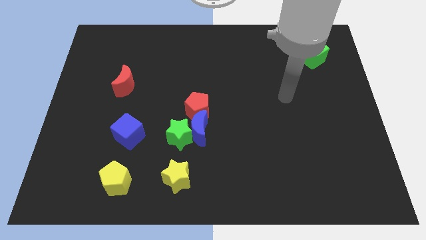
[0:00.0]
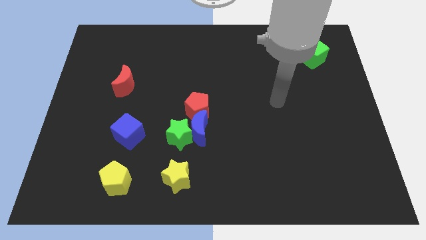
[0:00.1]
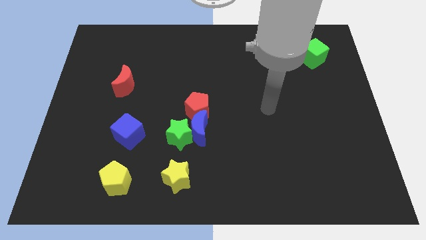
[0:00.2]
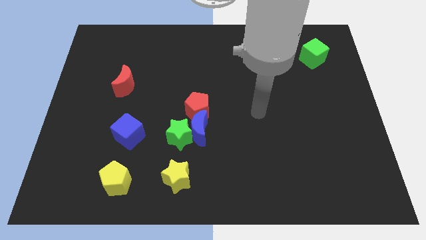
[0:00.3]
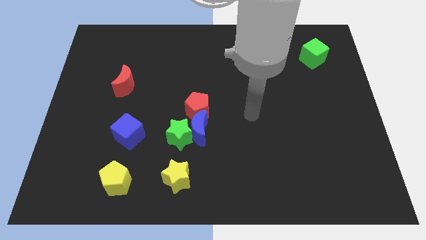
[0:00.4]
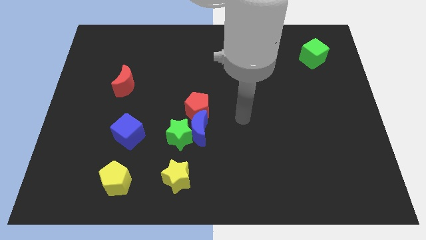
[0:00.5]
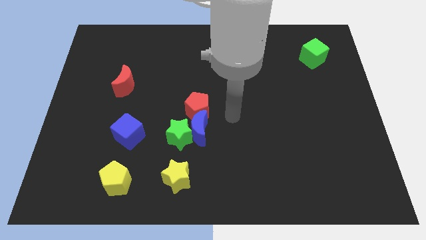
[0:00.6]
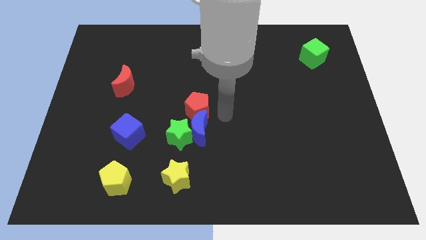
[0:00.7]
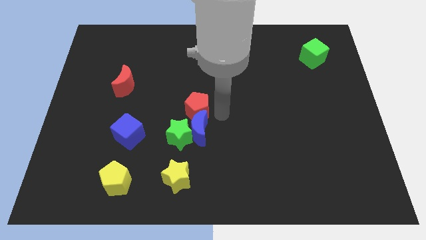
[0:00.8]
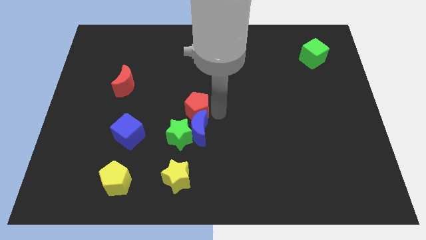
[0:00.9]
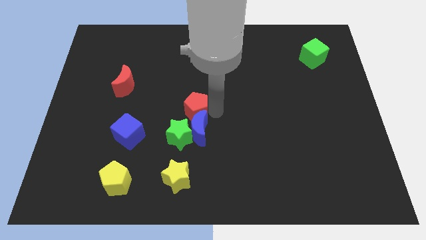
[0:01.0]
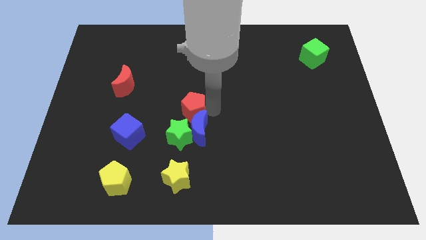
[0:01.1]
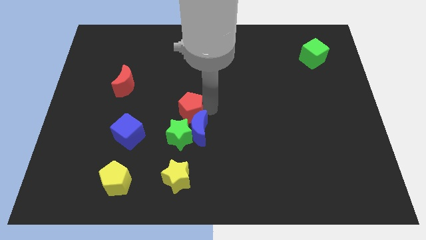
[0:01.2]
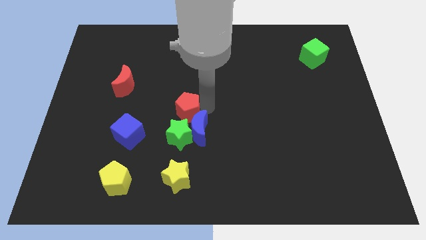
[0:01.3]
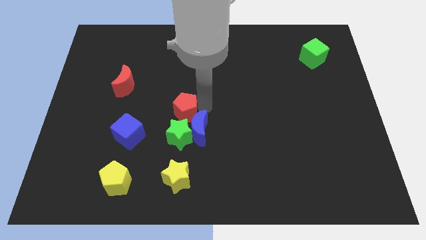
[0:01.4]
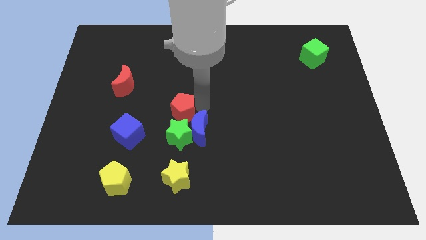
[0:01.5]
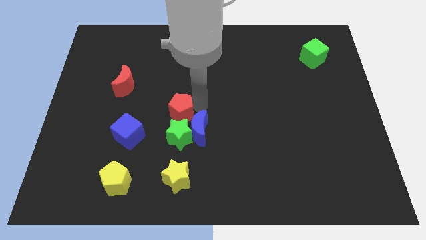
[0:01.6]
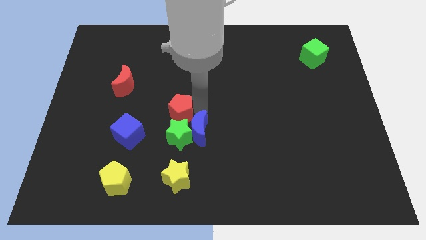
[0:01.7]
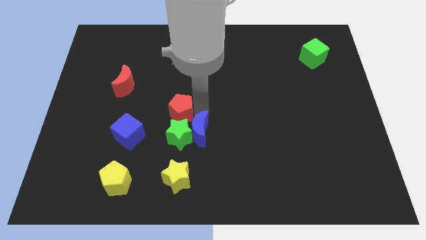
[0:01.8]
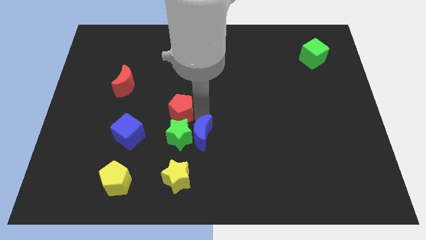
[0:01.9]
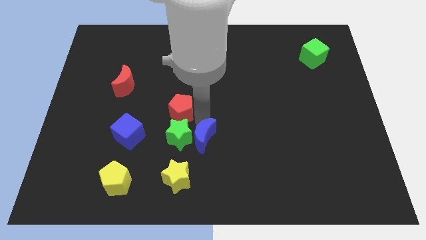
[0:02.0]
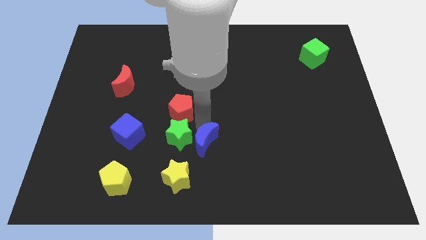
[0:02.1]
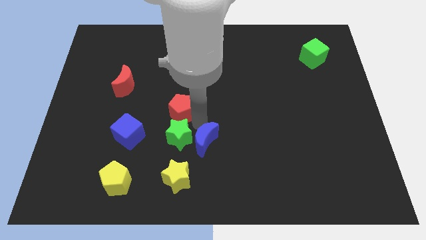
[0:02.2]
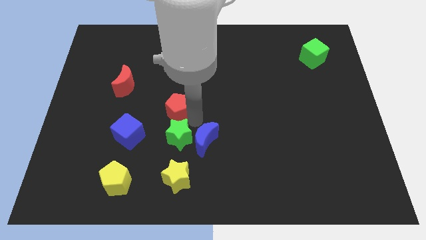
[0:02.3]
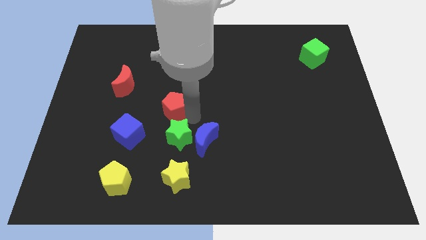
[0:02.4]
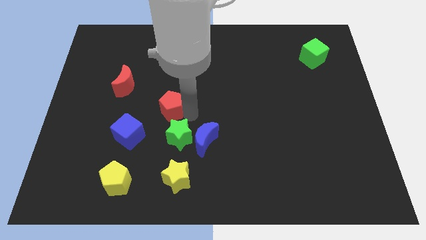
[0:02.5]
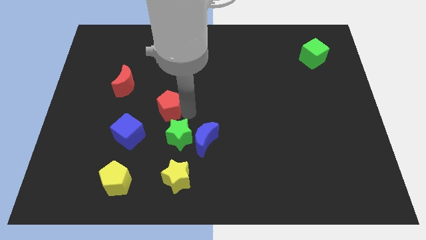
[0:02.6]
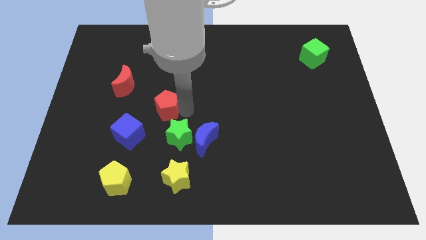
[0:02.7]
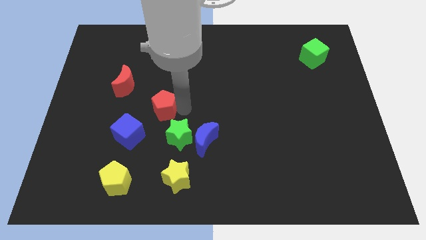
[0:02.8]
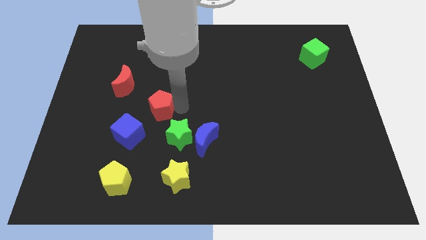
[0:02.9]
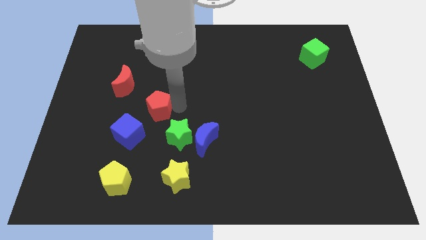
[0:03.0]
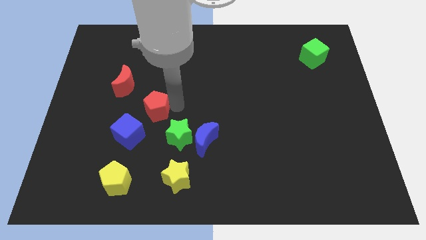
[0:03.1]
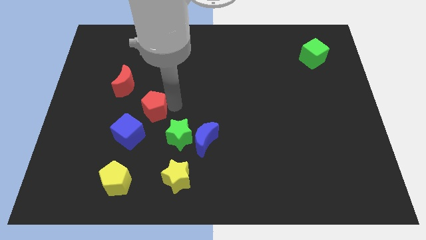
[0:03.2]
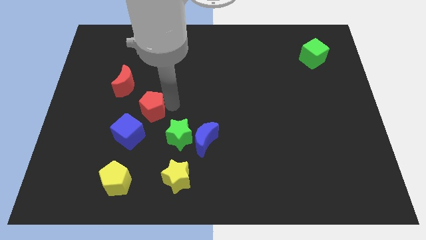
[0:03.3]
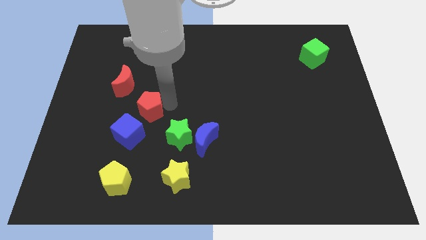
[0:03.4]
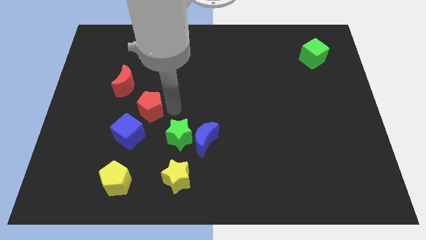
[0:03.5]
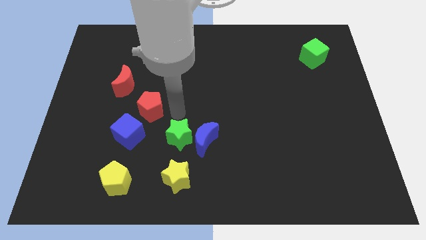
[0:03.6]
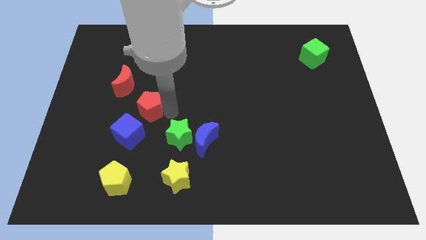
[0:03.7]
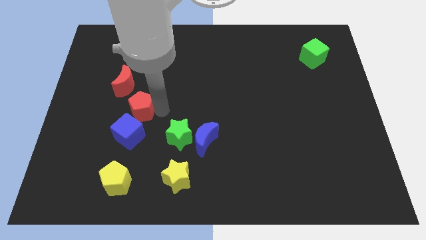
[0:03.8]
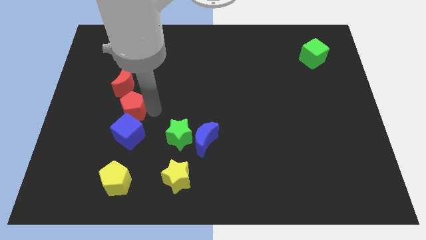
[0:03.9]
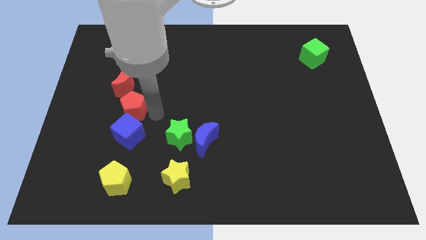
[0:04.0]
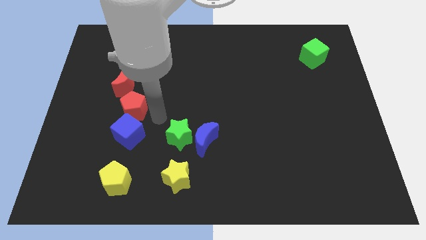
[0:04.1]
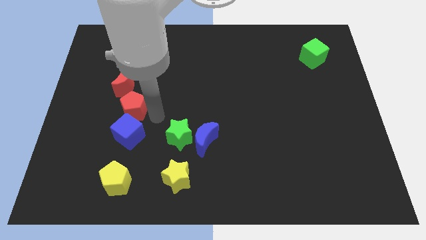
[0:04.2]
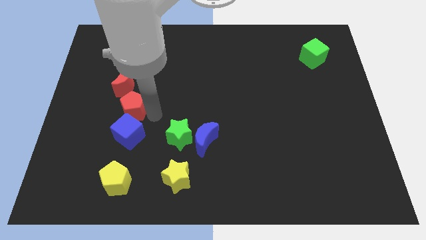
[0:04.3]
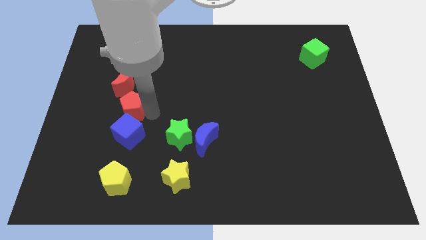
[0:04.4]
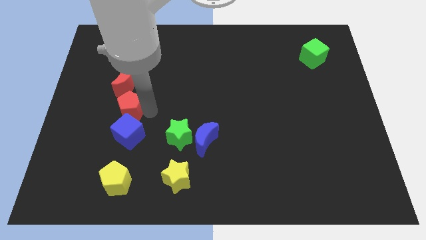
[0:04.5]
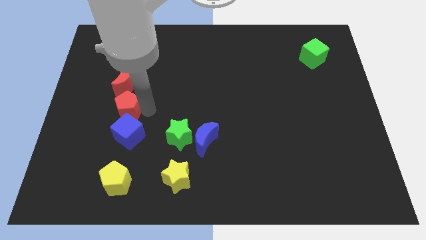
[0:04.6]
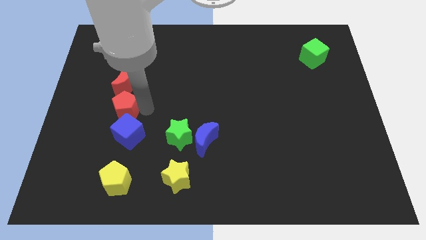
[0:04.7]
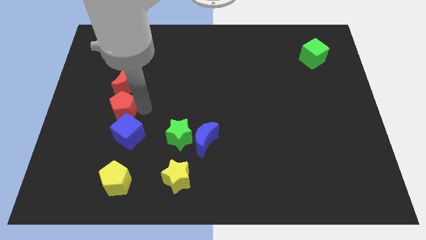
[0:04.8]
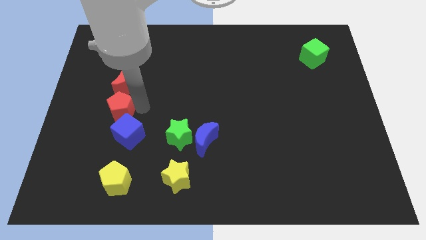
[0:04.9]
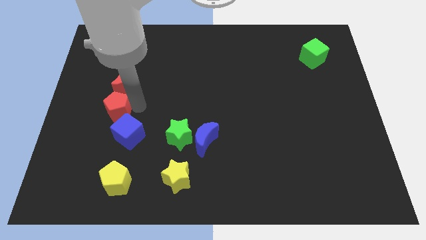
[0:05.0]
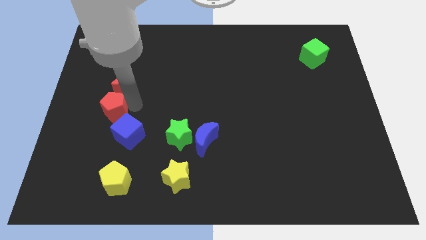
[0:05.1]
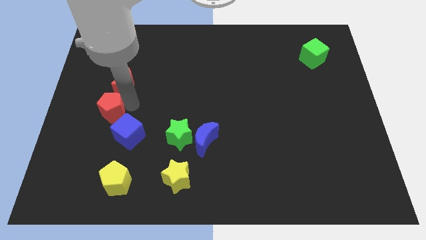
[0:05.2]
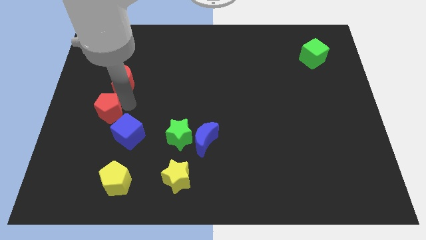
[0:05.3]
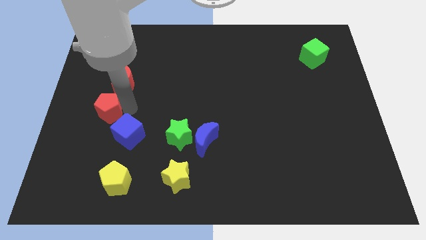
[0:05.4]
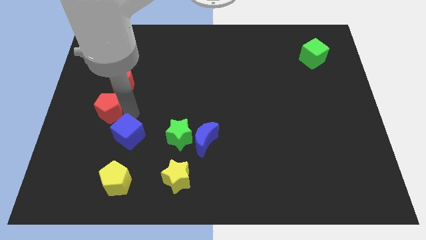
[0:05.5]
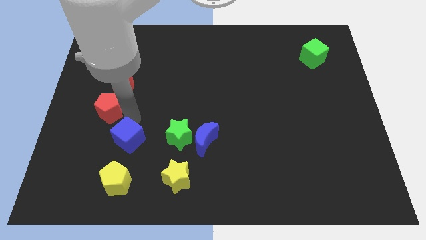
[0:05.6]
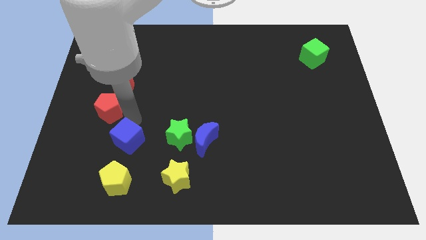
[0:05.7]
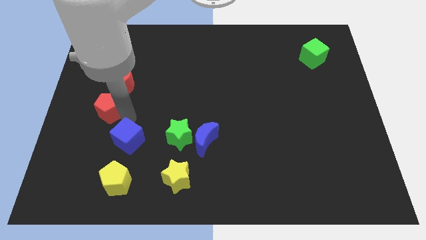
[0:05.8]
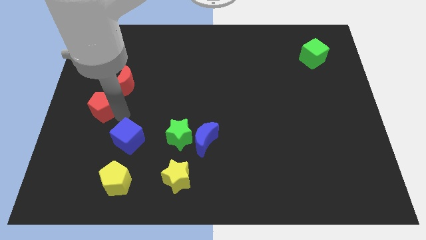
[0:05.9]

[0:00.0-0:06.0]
push the red pentagon to the center left

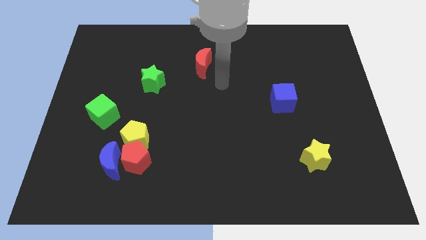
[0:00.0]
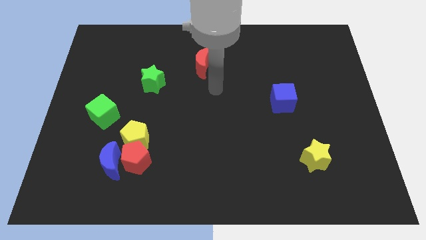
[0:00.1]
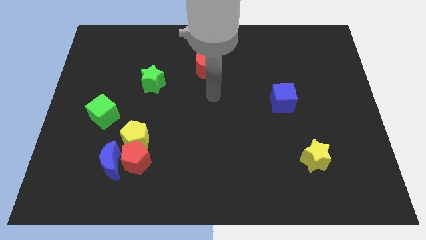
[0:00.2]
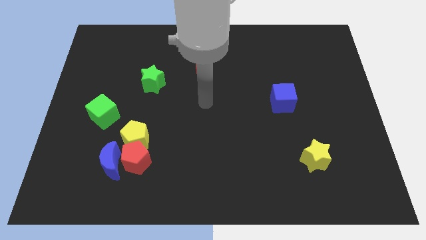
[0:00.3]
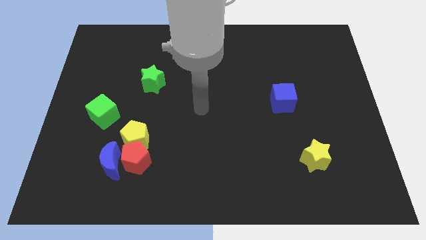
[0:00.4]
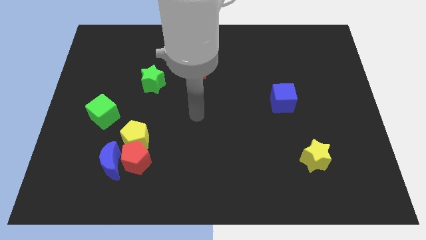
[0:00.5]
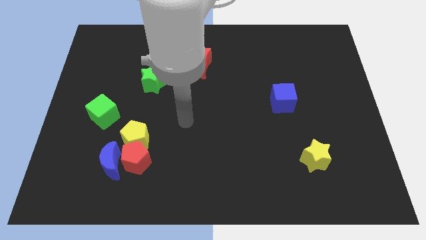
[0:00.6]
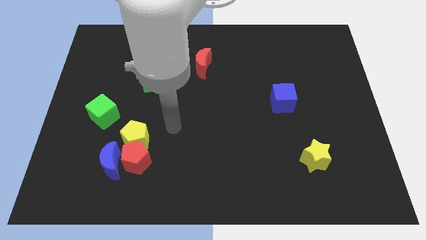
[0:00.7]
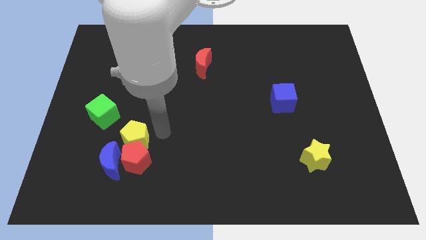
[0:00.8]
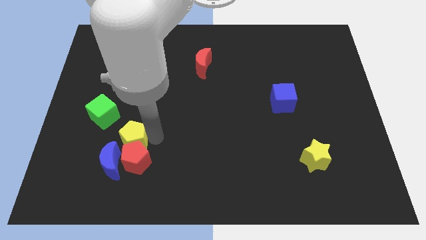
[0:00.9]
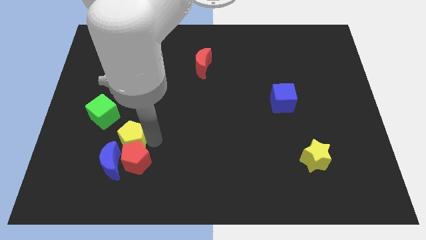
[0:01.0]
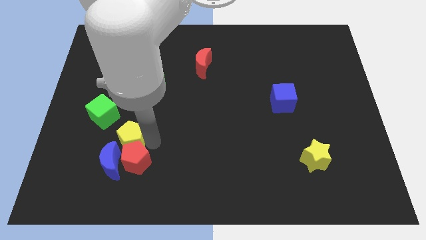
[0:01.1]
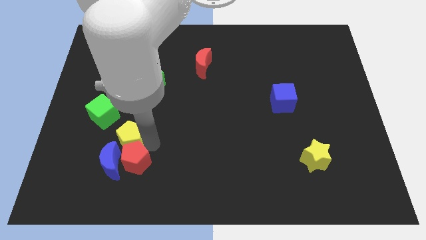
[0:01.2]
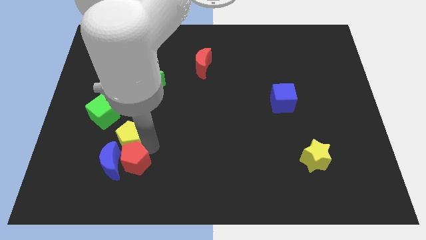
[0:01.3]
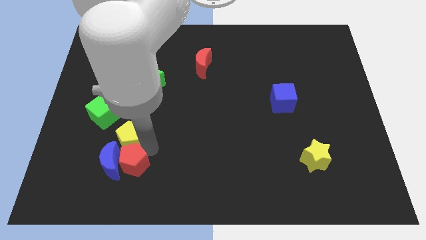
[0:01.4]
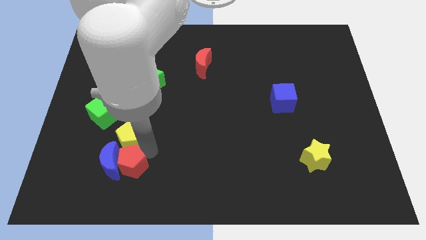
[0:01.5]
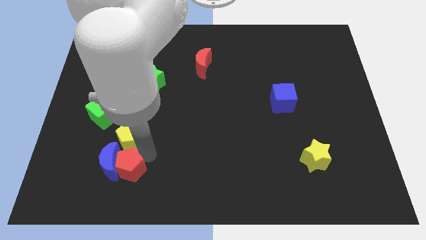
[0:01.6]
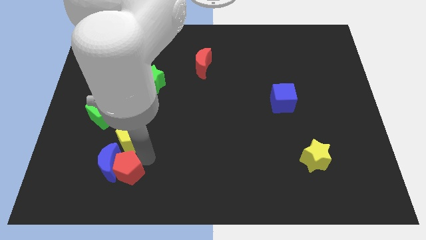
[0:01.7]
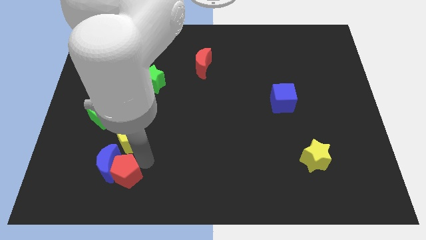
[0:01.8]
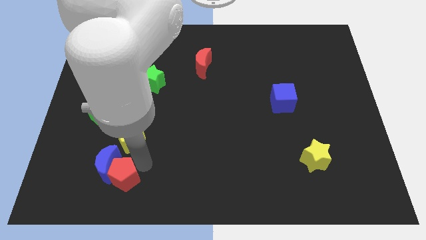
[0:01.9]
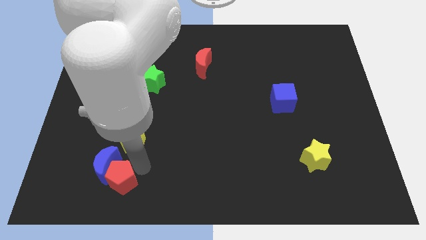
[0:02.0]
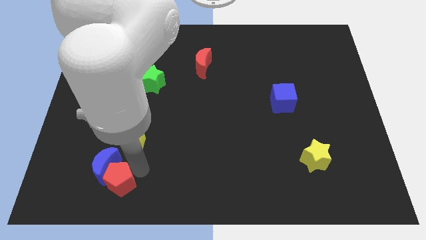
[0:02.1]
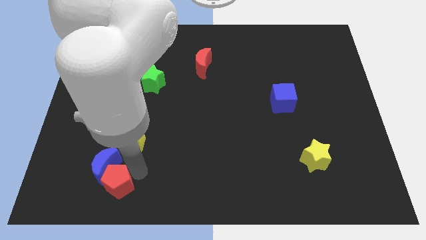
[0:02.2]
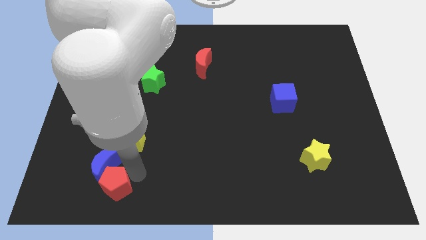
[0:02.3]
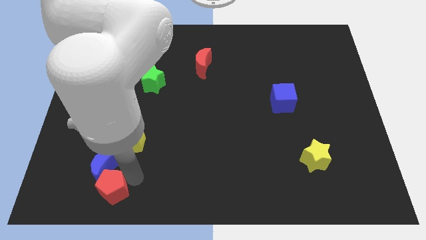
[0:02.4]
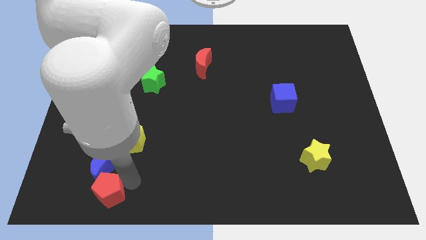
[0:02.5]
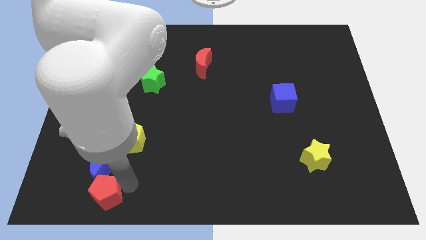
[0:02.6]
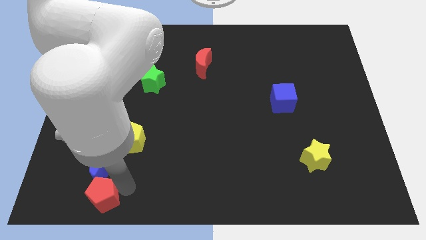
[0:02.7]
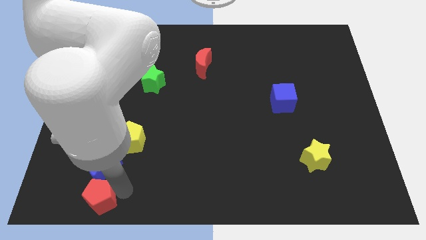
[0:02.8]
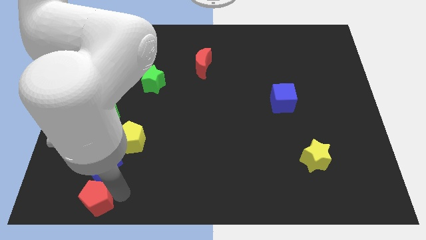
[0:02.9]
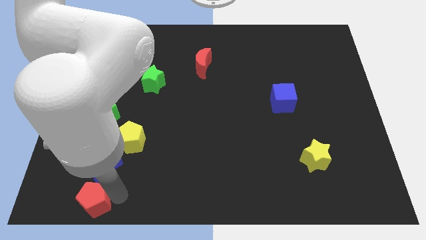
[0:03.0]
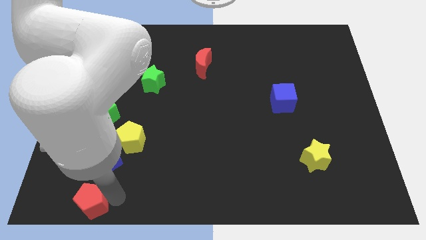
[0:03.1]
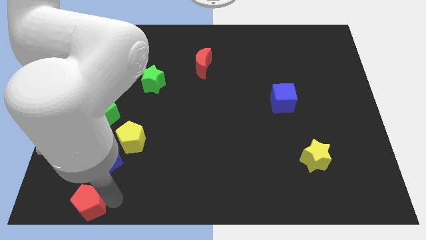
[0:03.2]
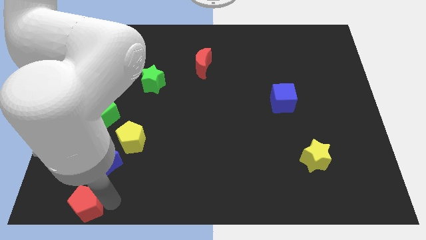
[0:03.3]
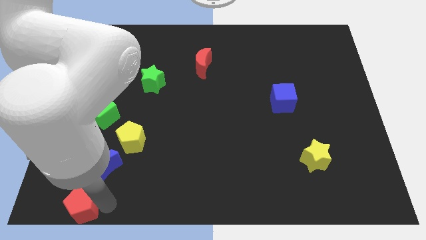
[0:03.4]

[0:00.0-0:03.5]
slide the red pentagon to the bottom left of the board
